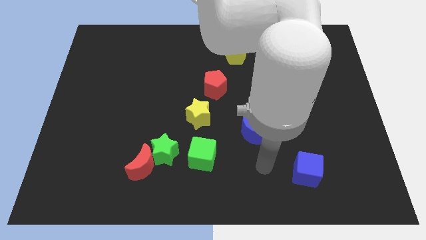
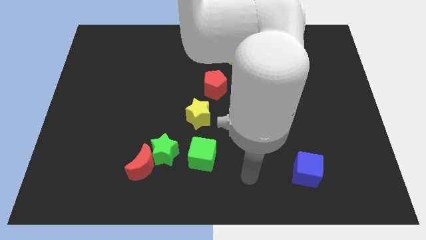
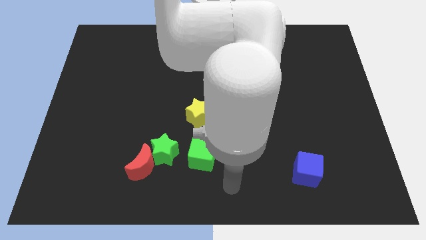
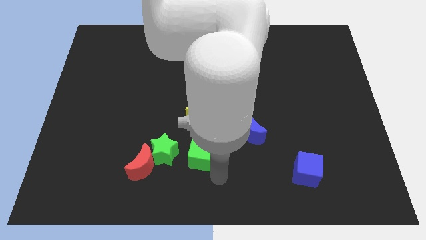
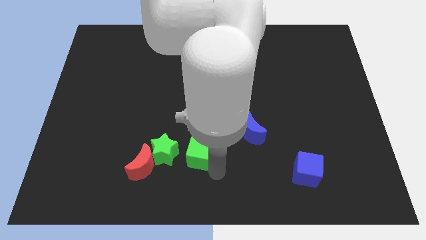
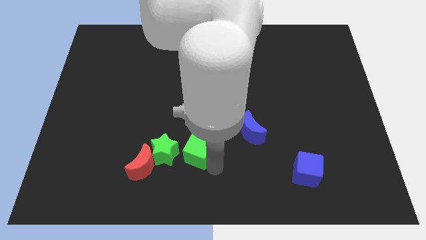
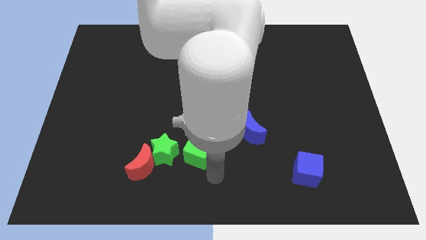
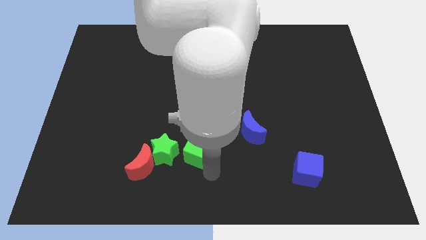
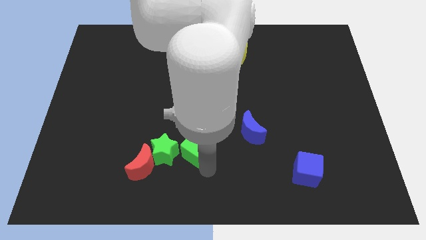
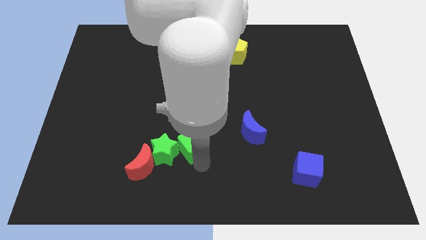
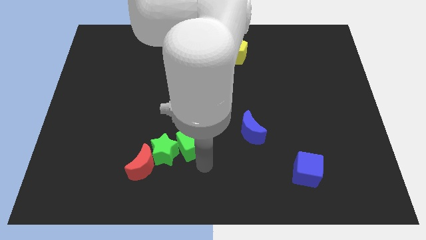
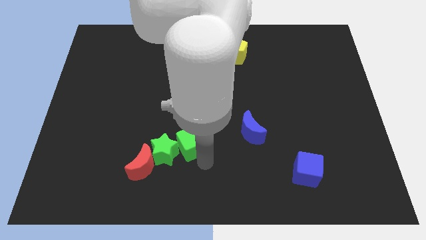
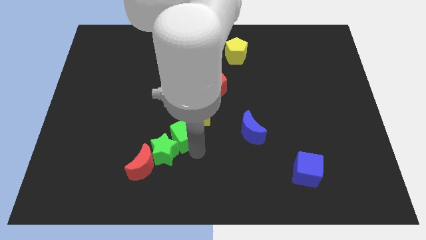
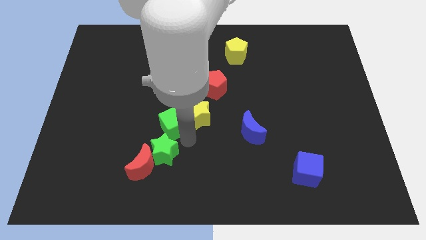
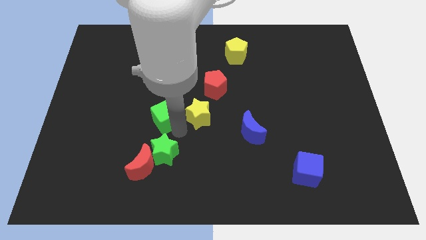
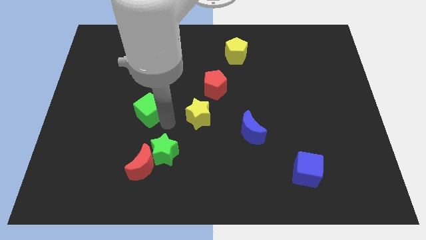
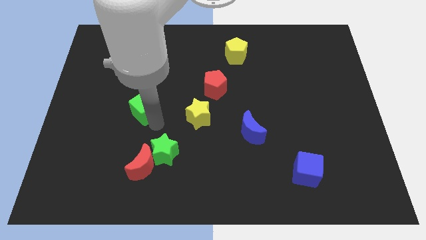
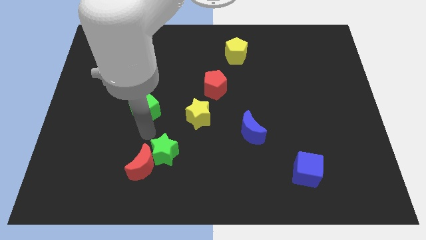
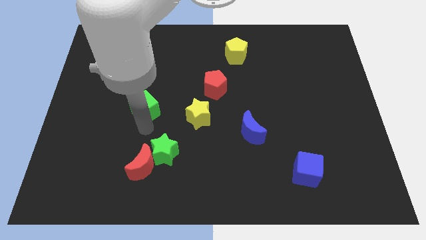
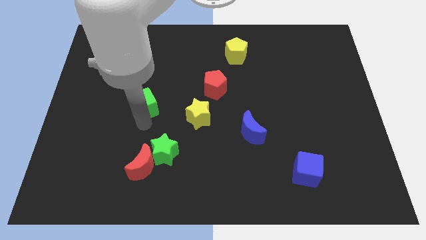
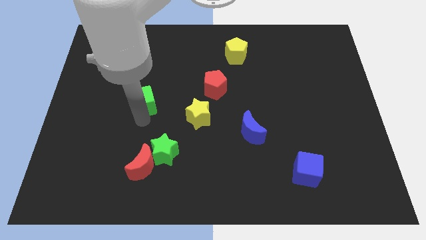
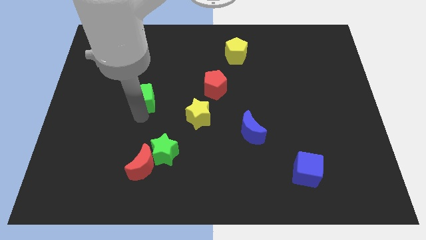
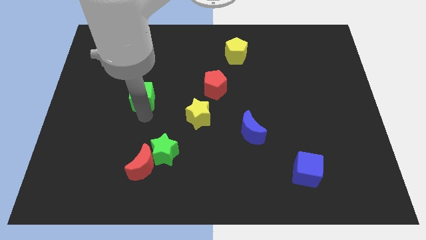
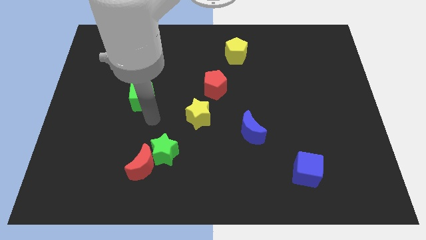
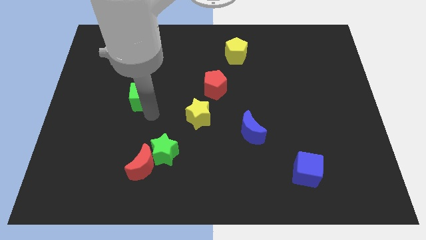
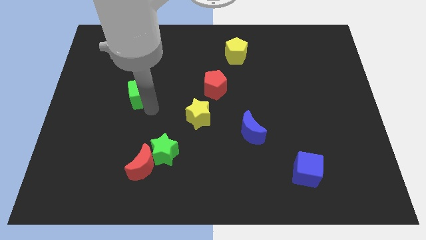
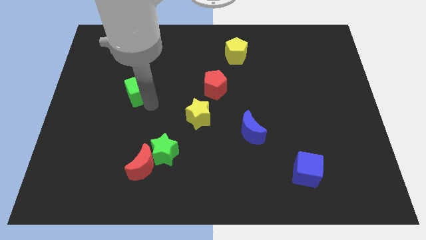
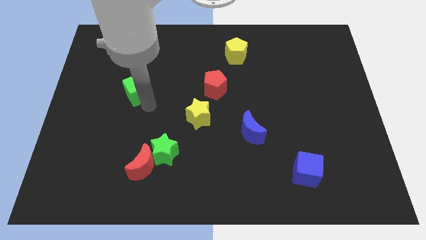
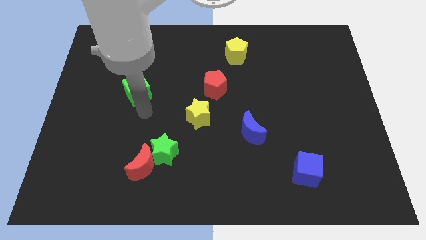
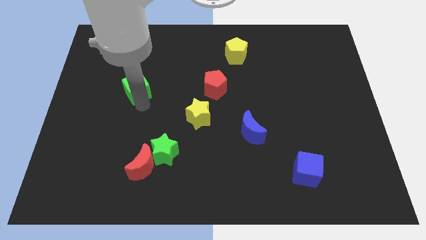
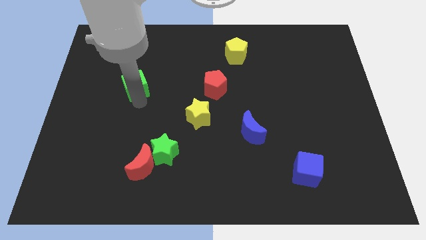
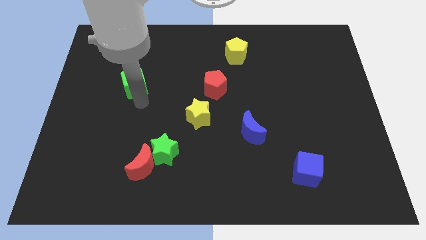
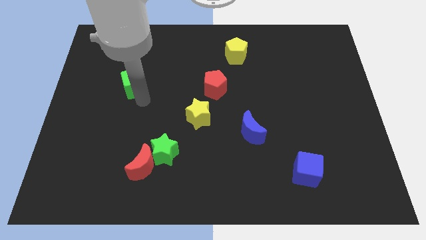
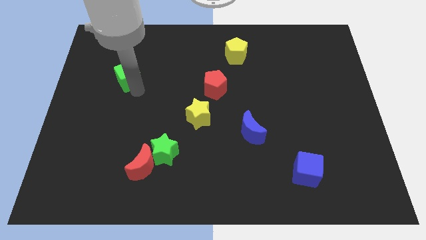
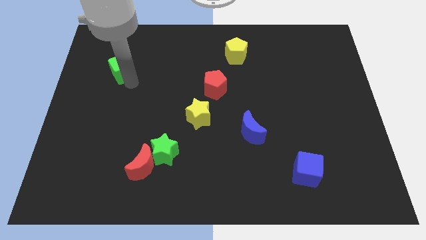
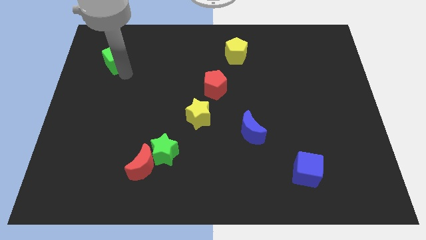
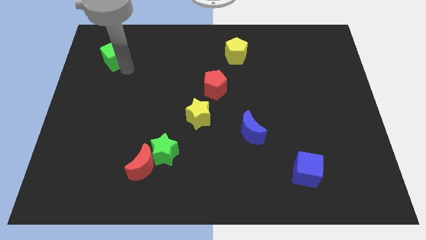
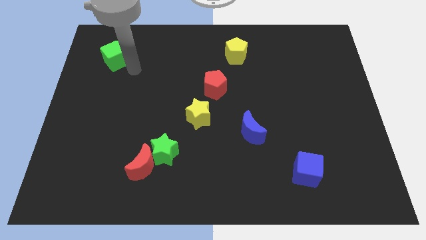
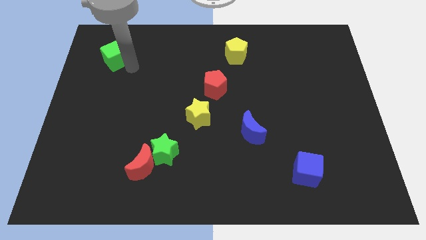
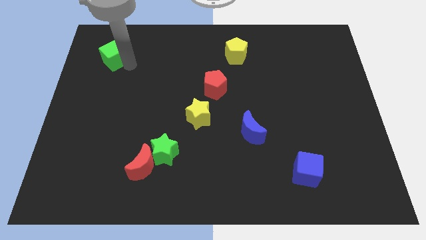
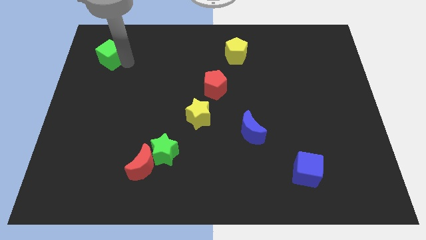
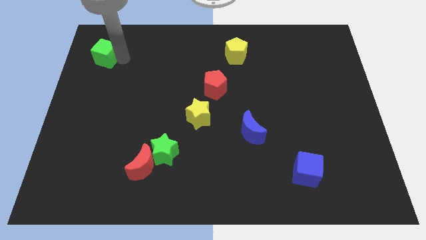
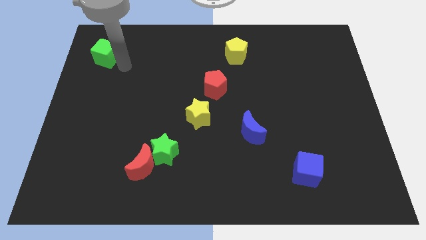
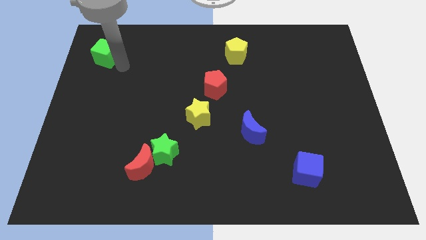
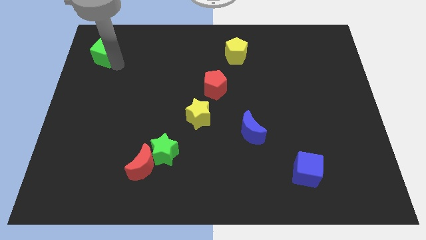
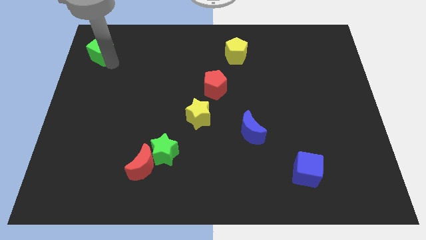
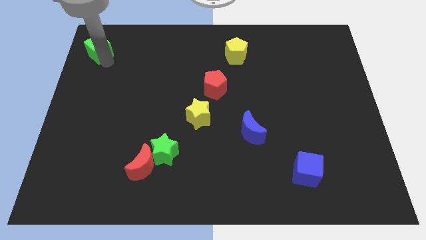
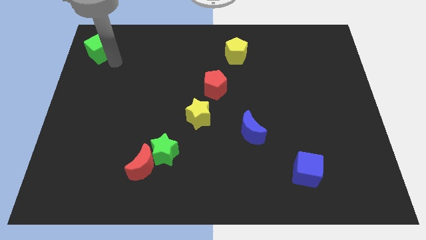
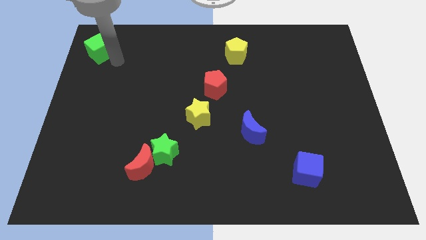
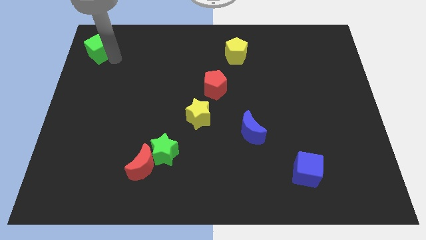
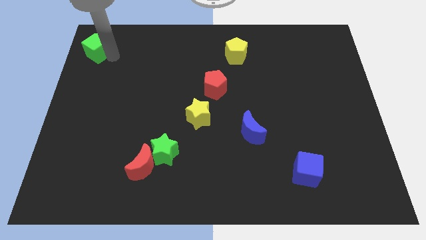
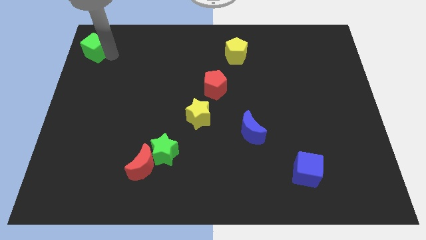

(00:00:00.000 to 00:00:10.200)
put the green cube to the top left of the board

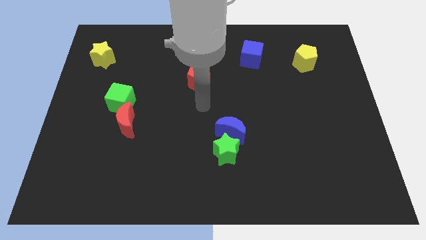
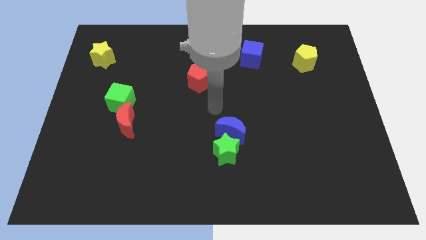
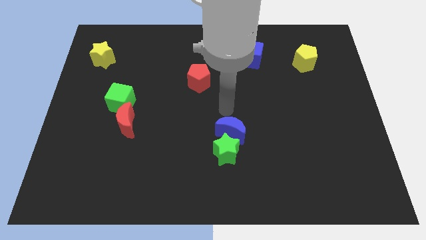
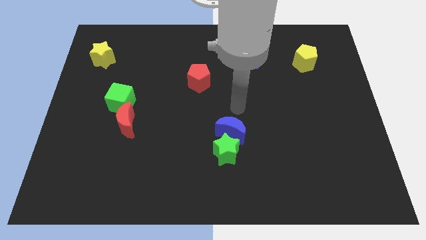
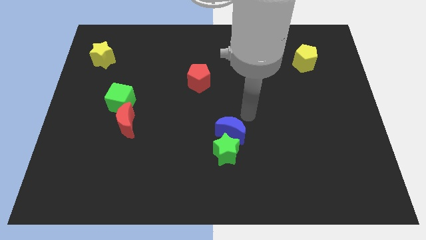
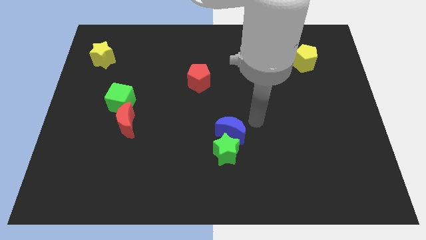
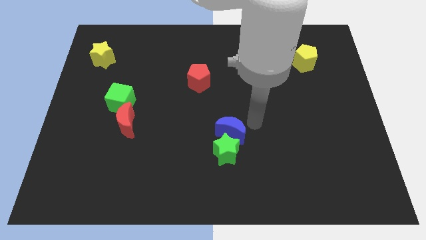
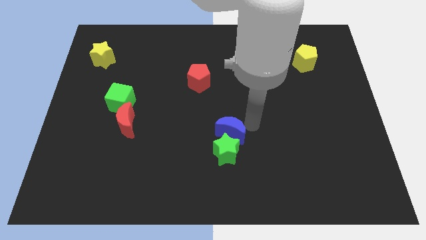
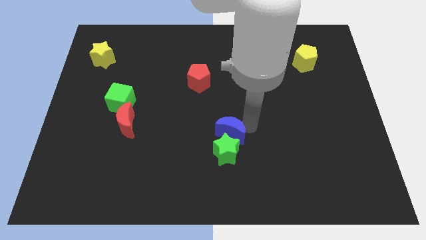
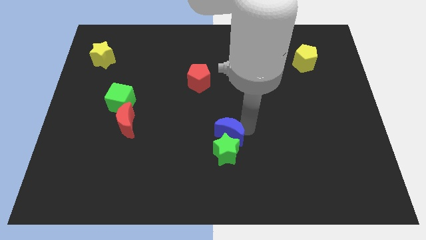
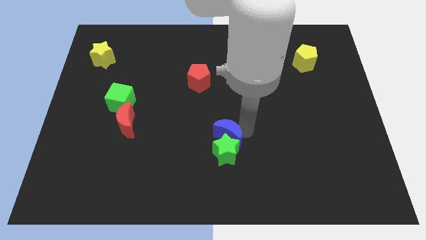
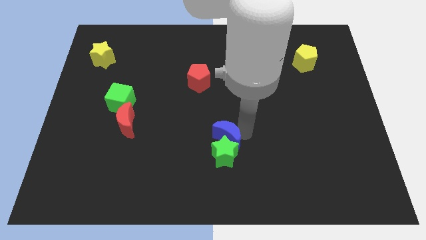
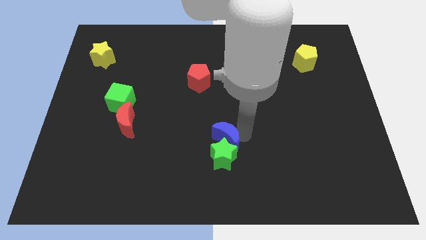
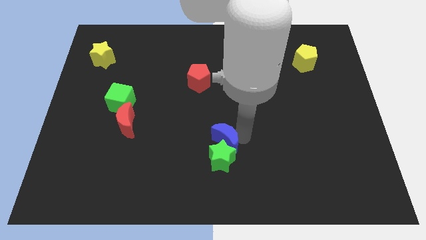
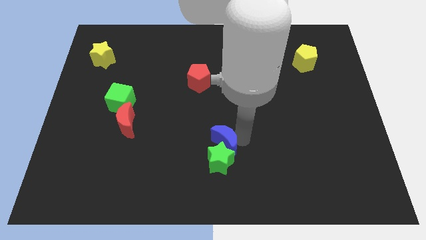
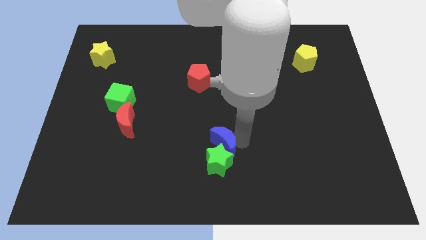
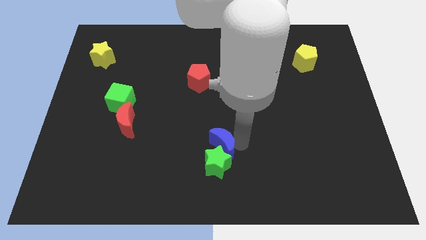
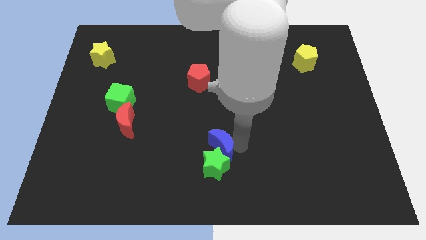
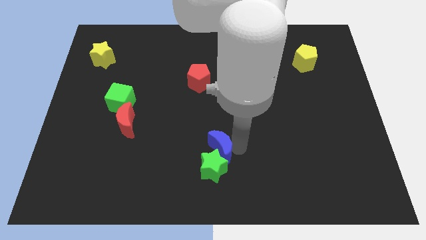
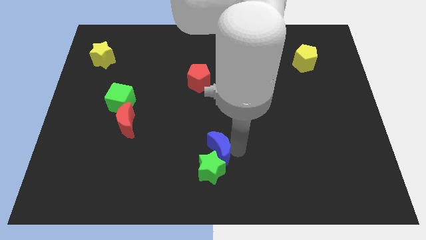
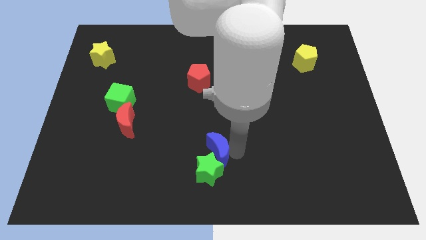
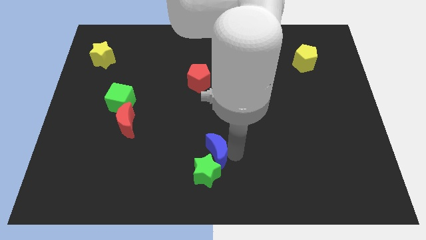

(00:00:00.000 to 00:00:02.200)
move the blue moon to the bottom side
